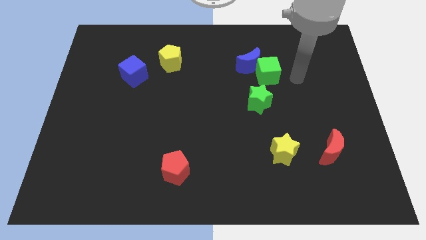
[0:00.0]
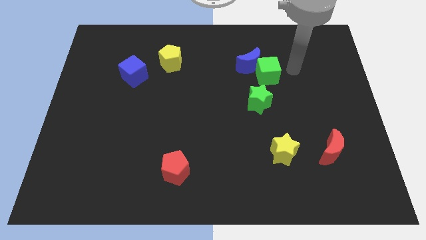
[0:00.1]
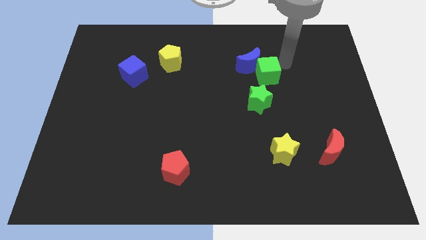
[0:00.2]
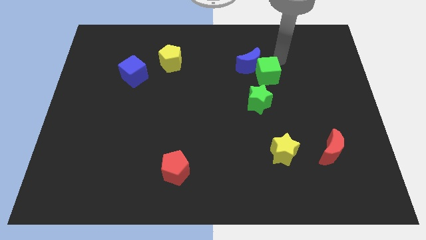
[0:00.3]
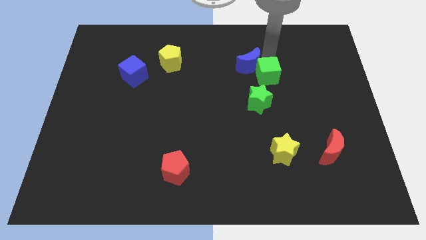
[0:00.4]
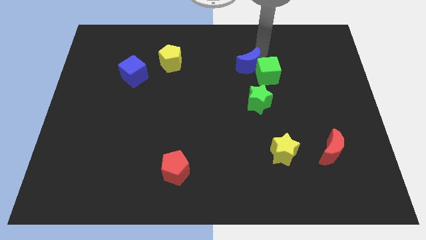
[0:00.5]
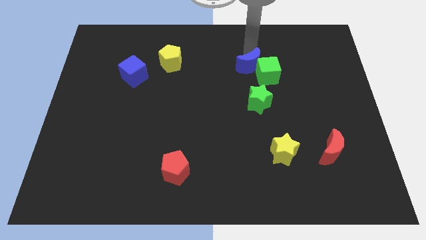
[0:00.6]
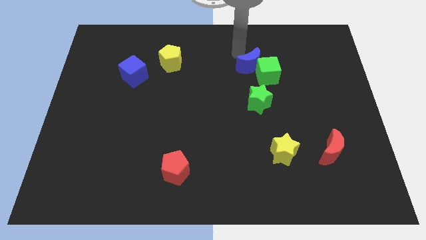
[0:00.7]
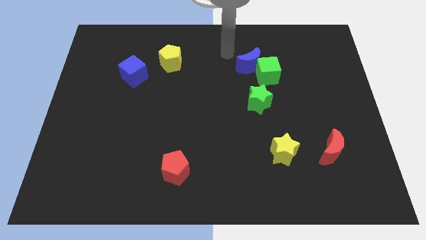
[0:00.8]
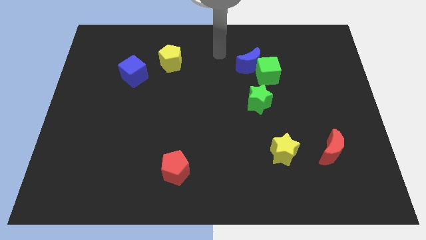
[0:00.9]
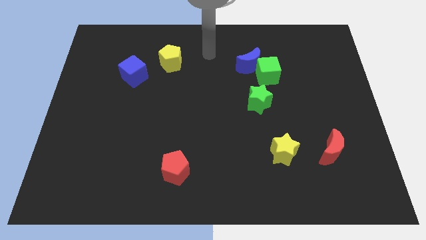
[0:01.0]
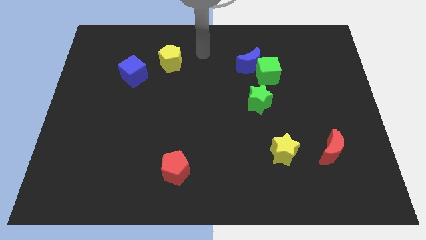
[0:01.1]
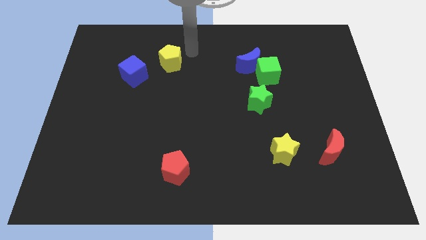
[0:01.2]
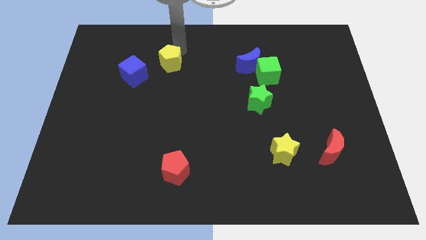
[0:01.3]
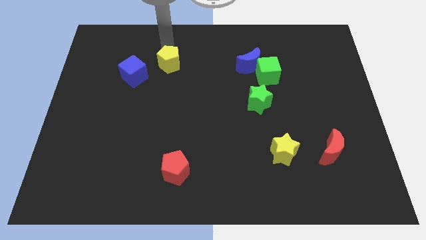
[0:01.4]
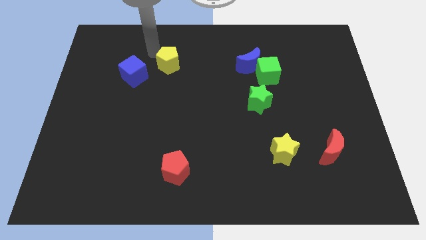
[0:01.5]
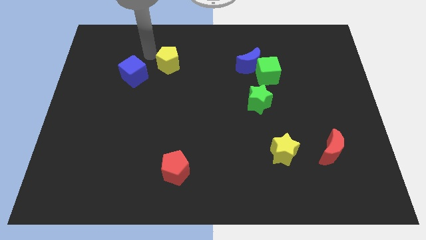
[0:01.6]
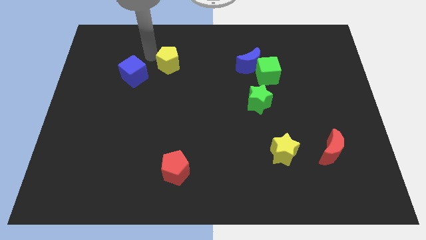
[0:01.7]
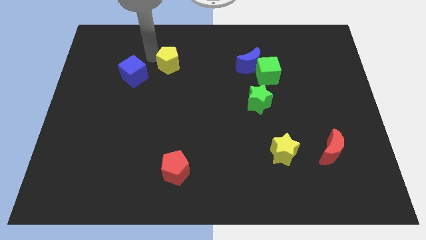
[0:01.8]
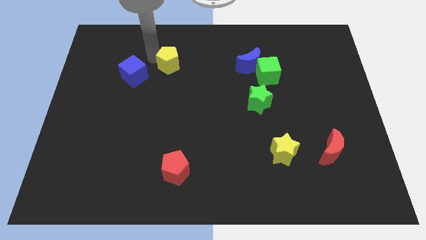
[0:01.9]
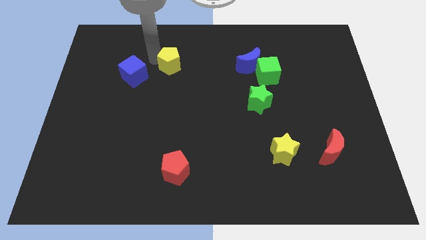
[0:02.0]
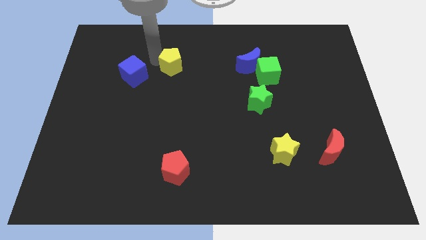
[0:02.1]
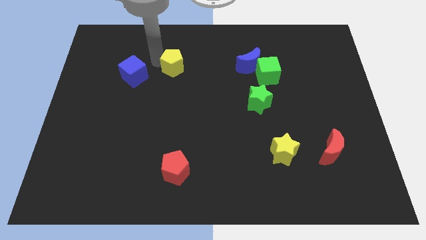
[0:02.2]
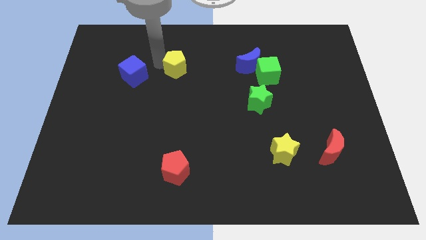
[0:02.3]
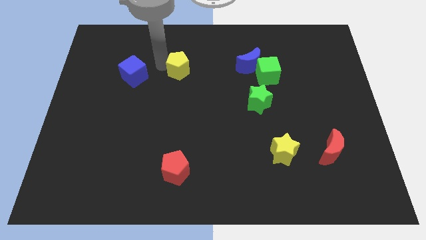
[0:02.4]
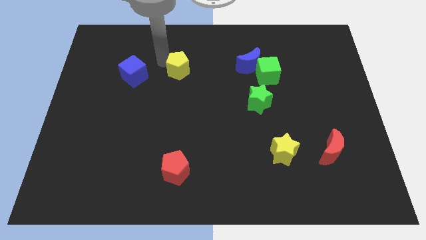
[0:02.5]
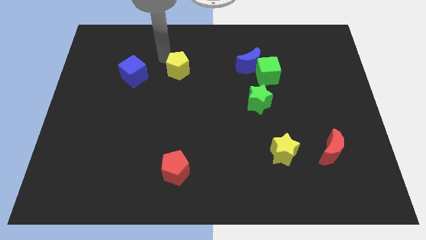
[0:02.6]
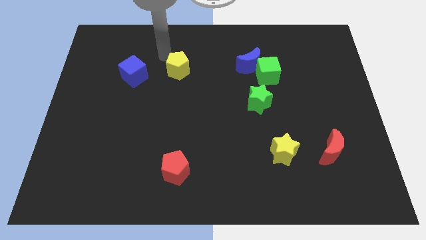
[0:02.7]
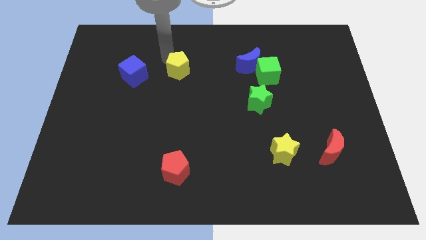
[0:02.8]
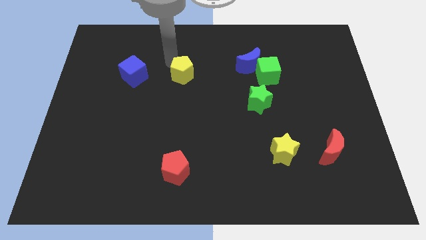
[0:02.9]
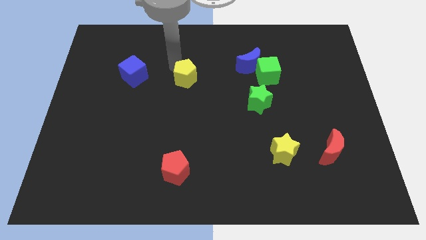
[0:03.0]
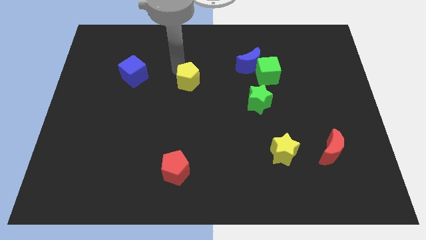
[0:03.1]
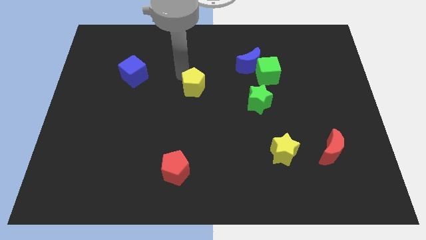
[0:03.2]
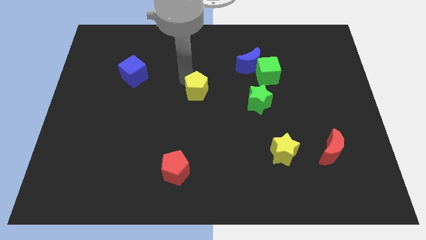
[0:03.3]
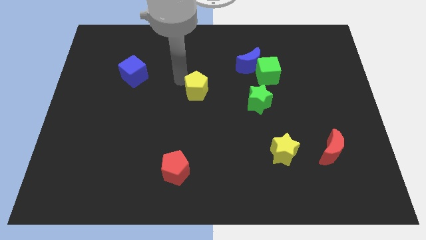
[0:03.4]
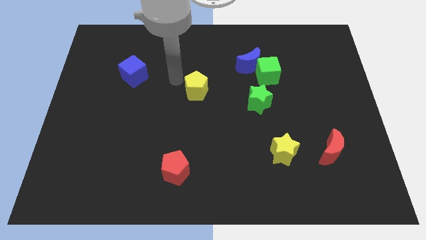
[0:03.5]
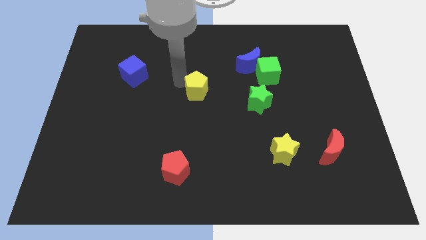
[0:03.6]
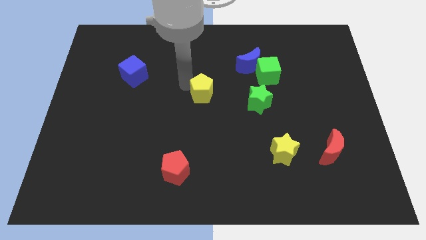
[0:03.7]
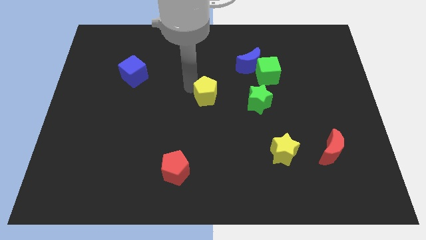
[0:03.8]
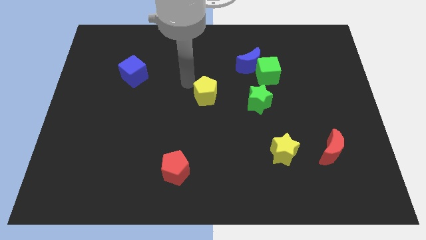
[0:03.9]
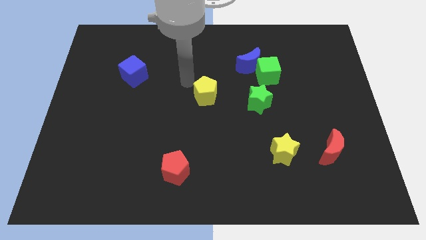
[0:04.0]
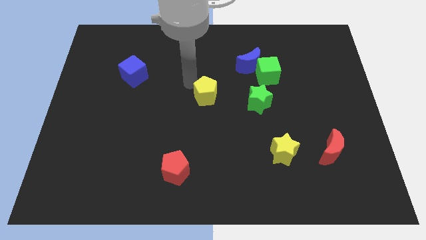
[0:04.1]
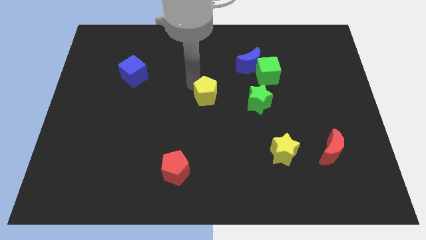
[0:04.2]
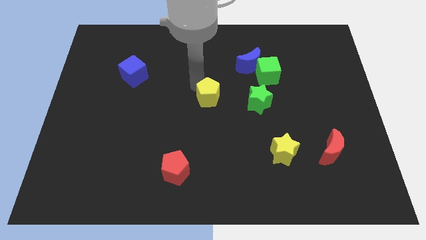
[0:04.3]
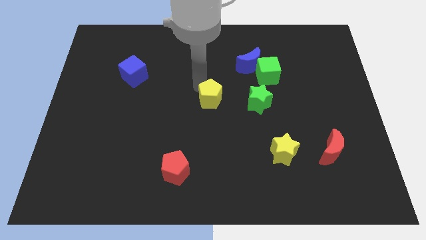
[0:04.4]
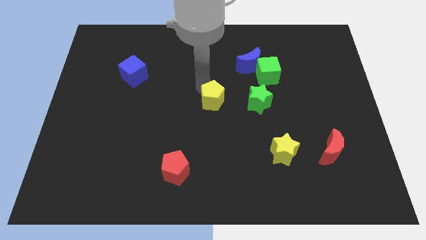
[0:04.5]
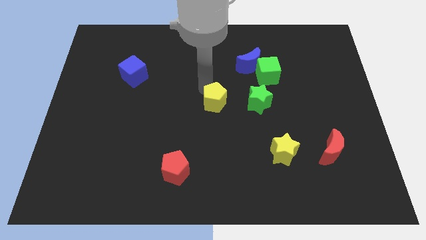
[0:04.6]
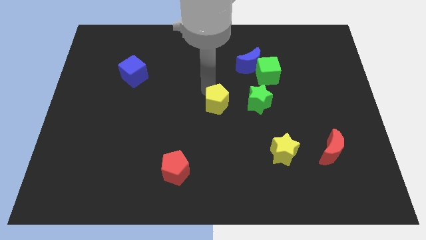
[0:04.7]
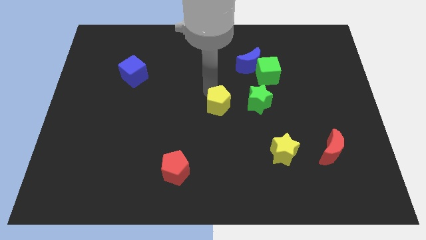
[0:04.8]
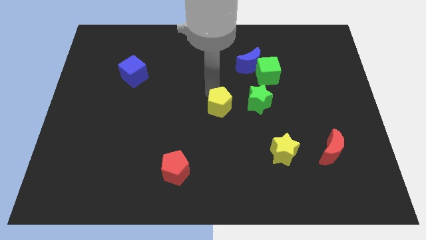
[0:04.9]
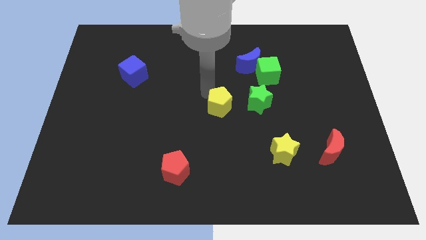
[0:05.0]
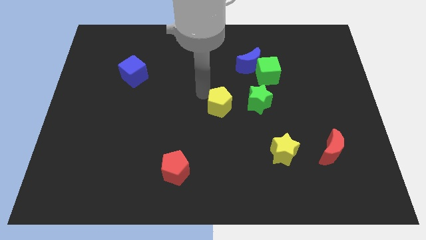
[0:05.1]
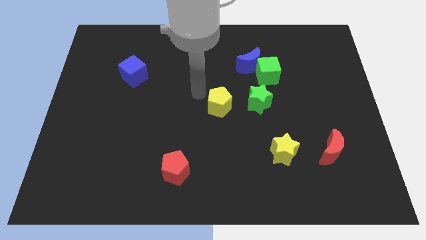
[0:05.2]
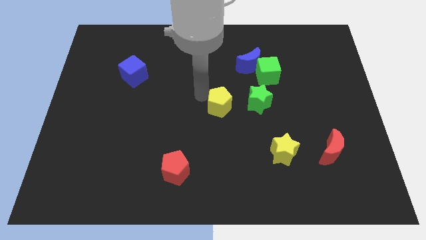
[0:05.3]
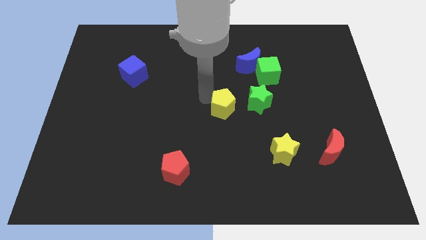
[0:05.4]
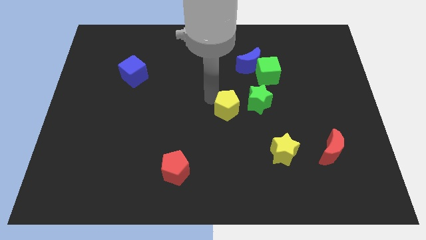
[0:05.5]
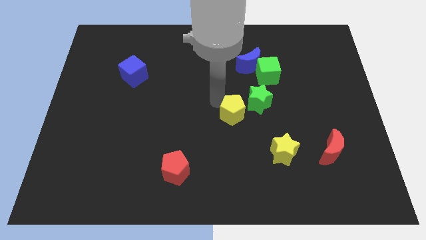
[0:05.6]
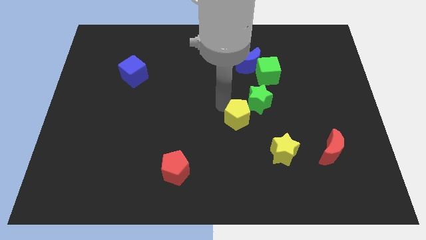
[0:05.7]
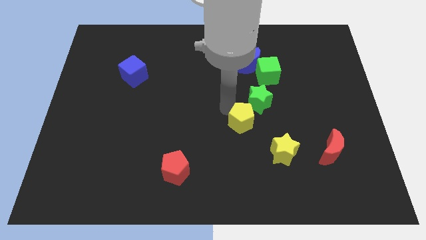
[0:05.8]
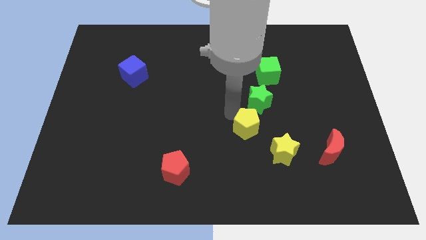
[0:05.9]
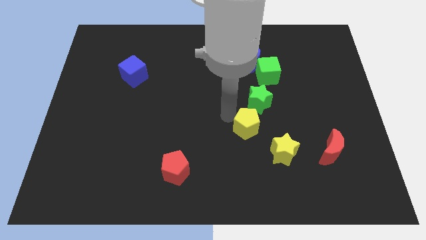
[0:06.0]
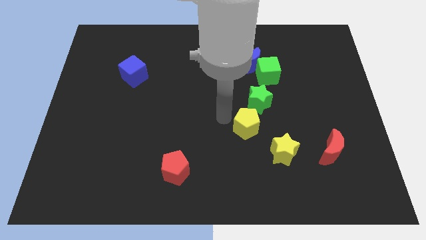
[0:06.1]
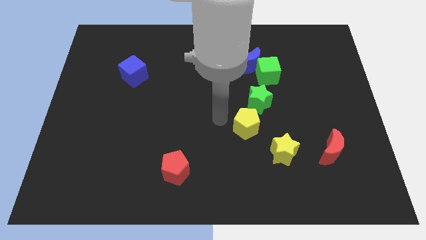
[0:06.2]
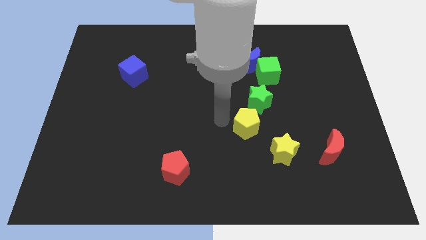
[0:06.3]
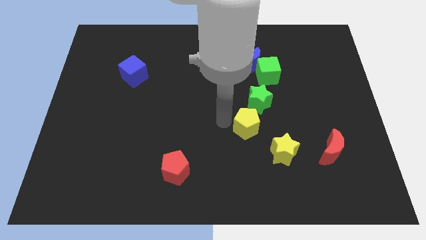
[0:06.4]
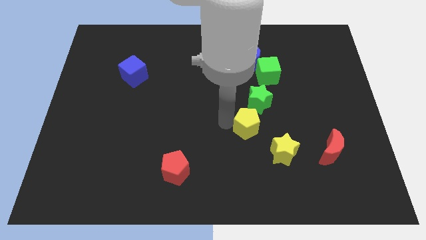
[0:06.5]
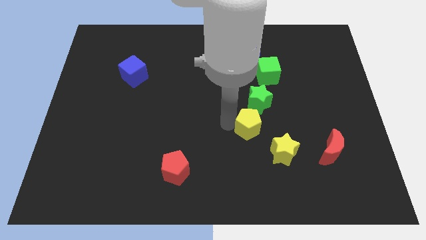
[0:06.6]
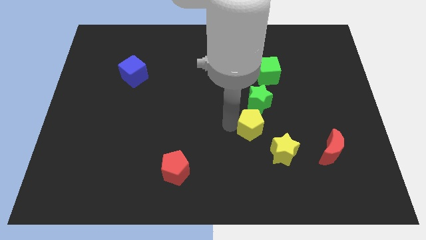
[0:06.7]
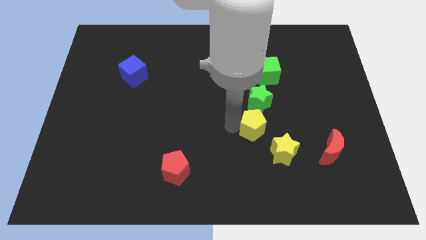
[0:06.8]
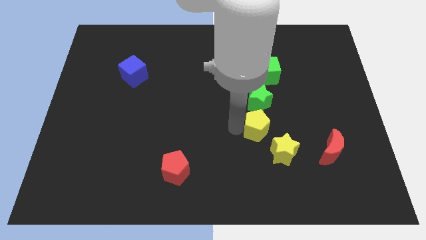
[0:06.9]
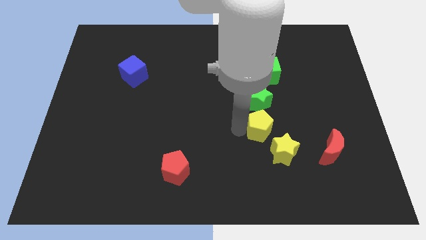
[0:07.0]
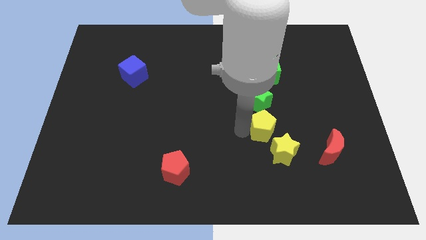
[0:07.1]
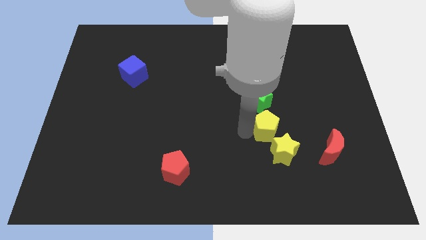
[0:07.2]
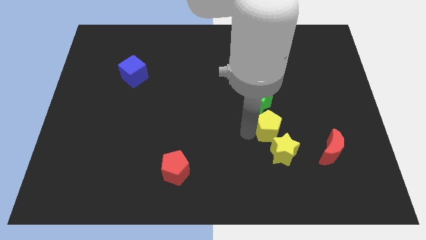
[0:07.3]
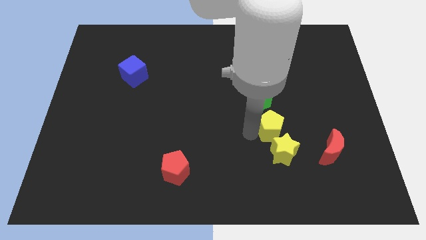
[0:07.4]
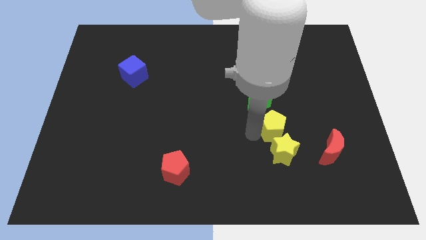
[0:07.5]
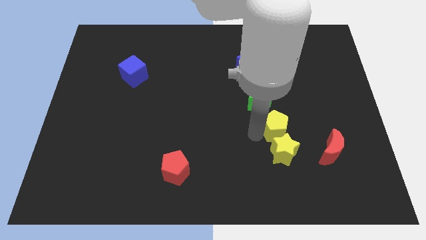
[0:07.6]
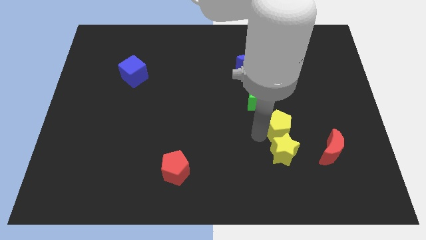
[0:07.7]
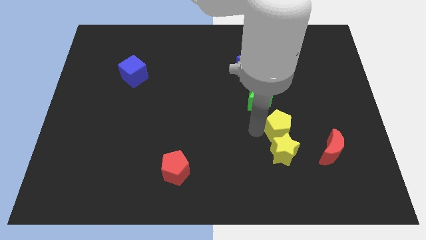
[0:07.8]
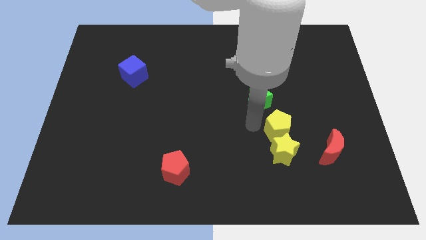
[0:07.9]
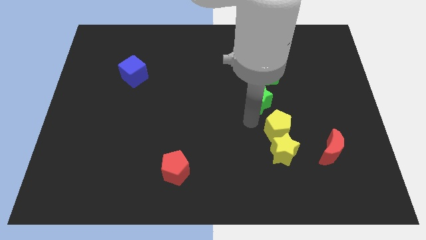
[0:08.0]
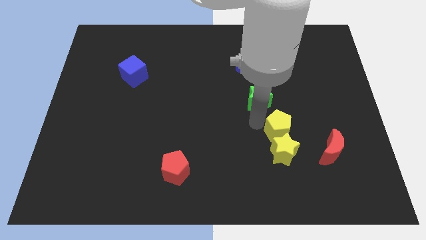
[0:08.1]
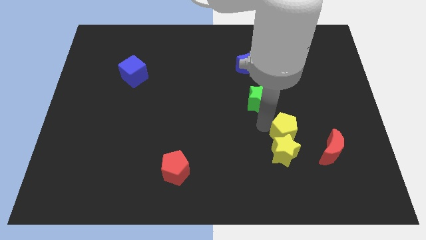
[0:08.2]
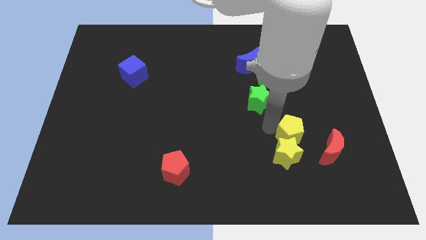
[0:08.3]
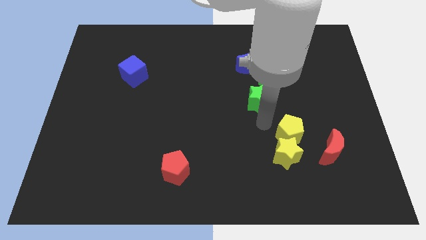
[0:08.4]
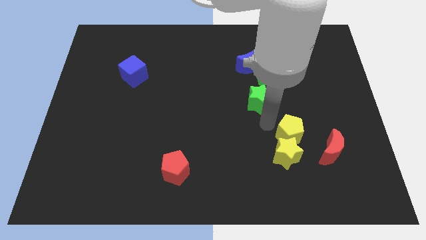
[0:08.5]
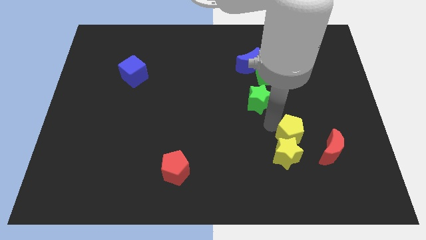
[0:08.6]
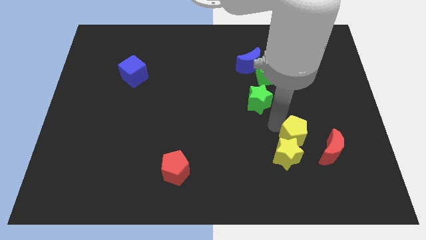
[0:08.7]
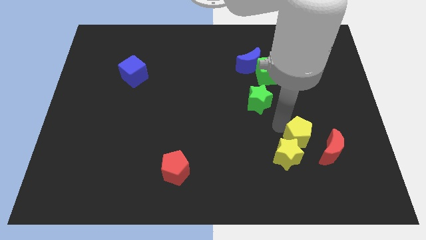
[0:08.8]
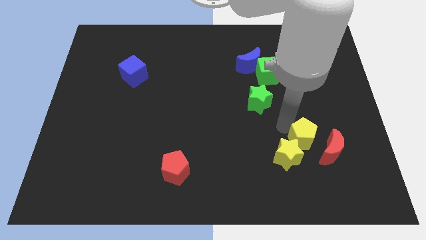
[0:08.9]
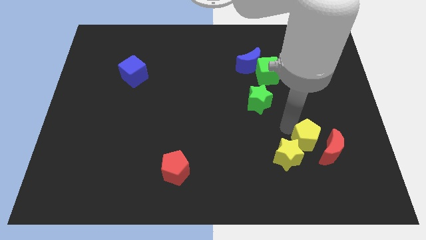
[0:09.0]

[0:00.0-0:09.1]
push the yellow pentagon close to the red moon
